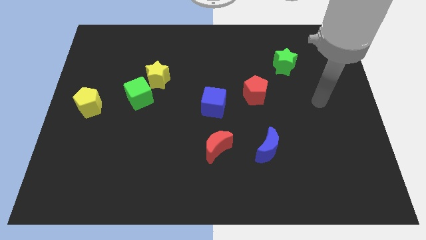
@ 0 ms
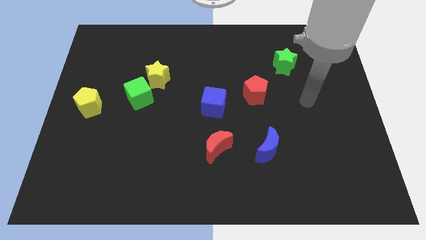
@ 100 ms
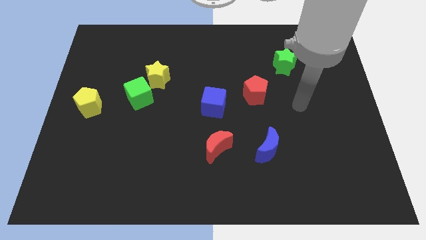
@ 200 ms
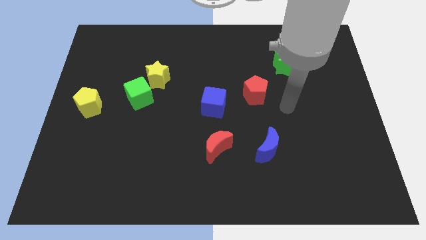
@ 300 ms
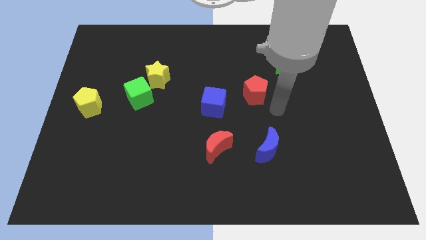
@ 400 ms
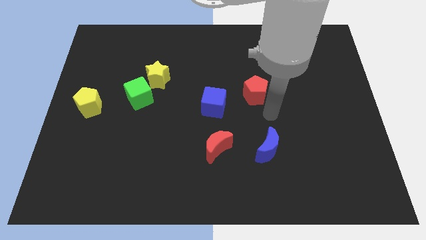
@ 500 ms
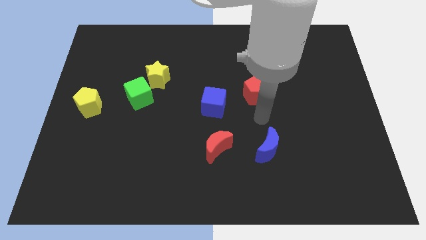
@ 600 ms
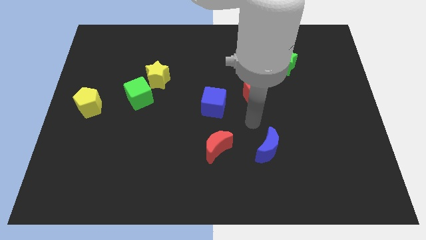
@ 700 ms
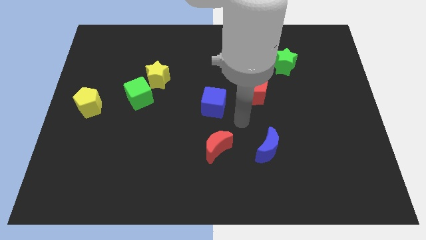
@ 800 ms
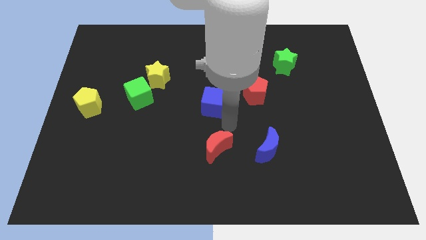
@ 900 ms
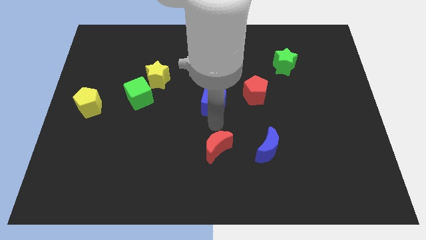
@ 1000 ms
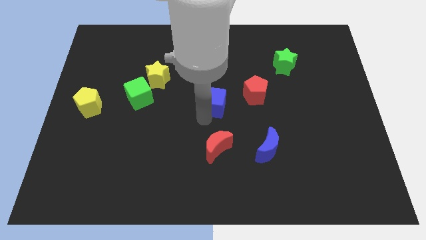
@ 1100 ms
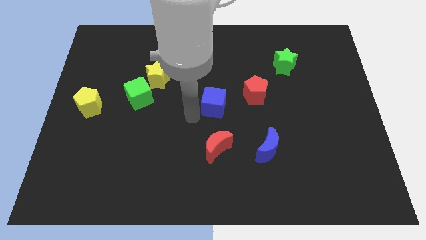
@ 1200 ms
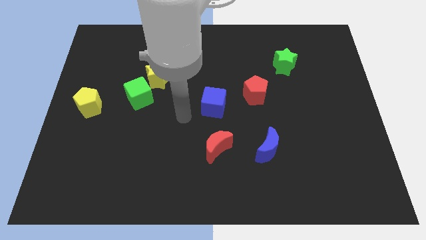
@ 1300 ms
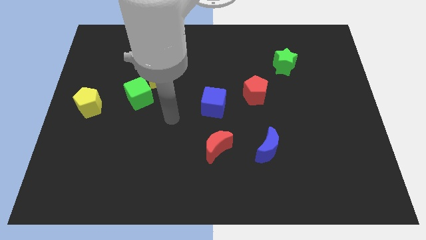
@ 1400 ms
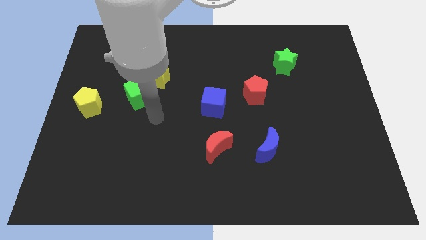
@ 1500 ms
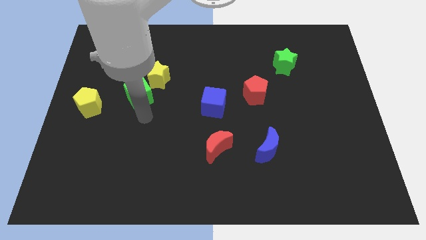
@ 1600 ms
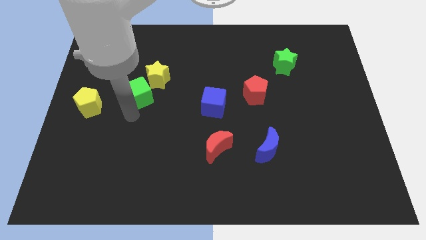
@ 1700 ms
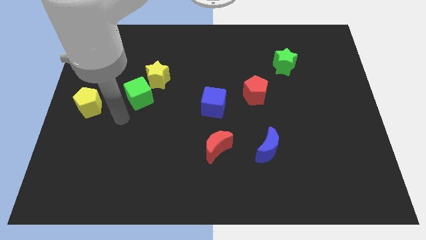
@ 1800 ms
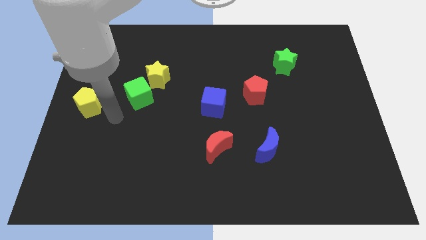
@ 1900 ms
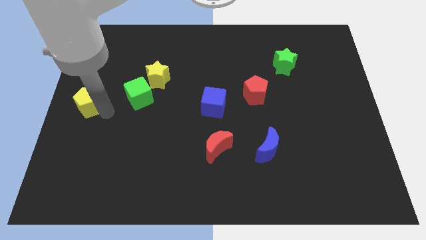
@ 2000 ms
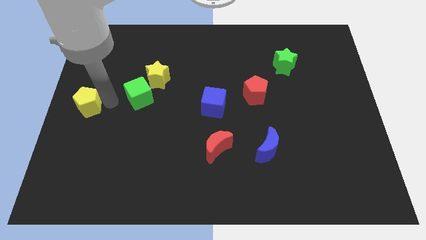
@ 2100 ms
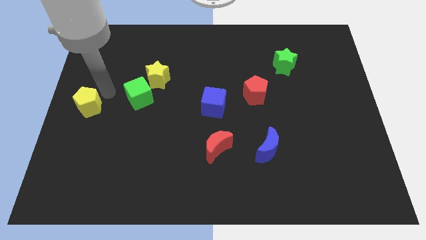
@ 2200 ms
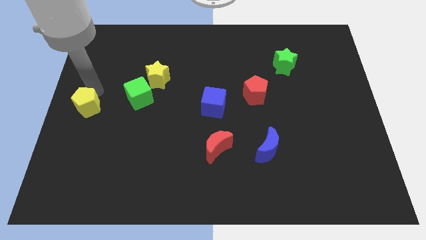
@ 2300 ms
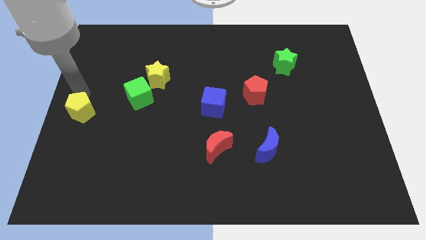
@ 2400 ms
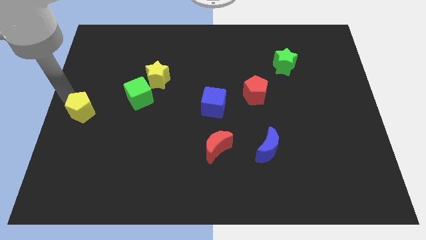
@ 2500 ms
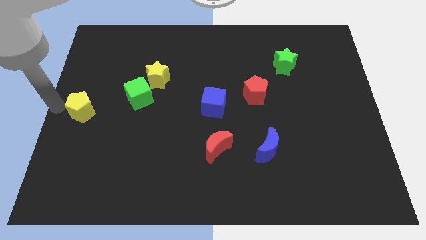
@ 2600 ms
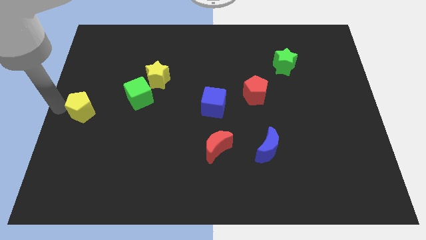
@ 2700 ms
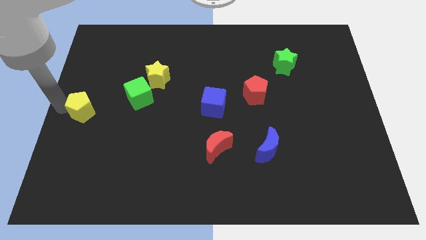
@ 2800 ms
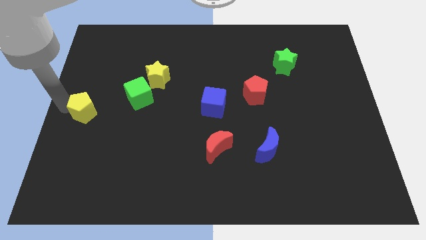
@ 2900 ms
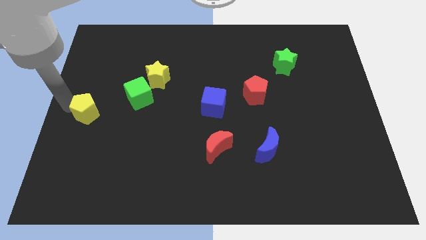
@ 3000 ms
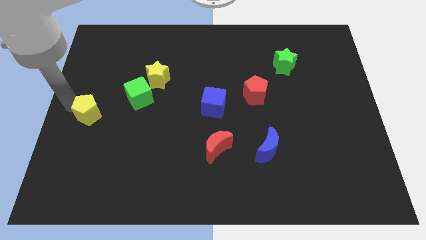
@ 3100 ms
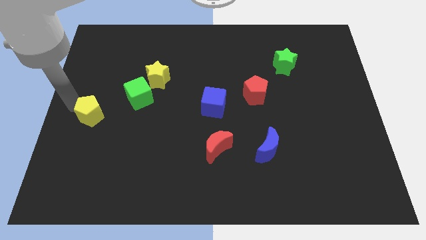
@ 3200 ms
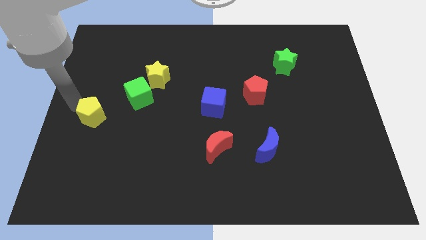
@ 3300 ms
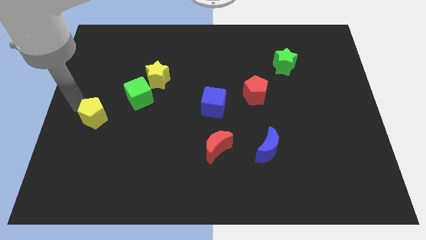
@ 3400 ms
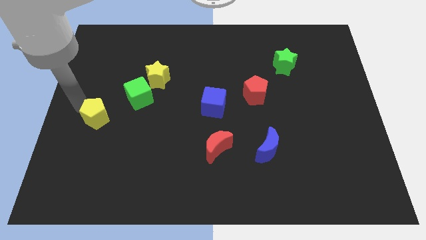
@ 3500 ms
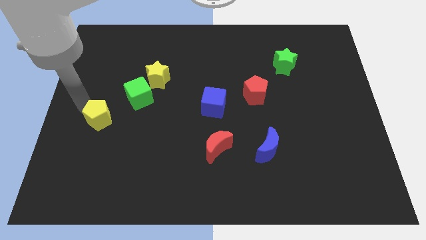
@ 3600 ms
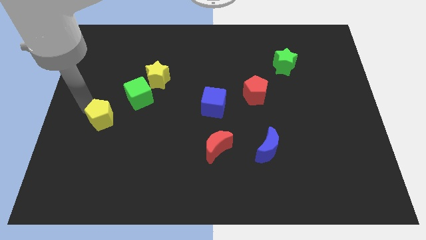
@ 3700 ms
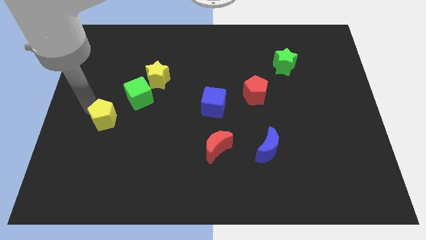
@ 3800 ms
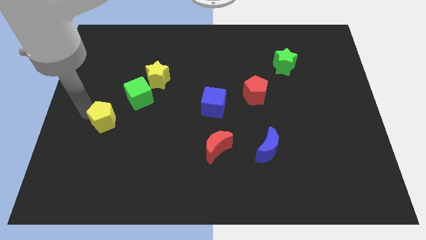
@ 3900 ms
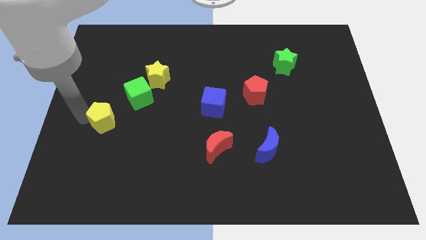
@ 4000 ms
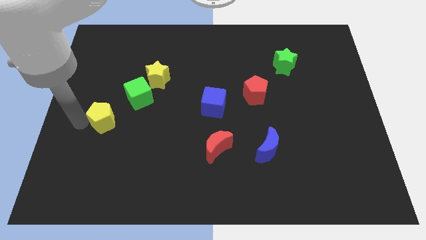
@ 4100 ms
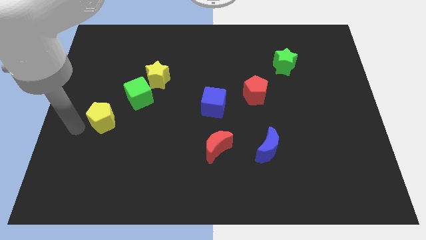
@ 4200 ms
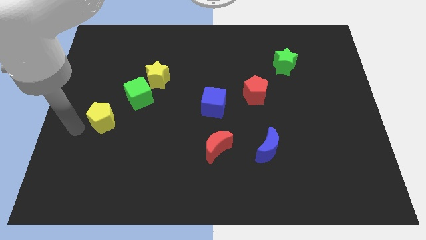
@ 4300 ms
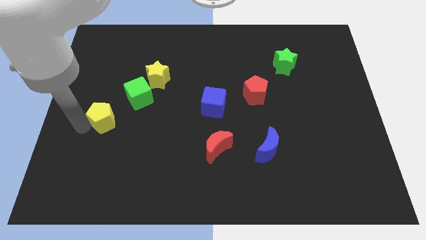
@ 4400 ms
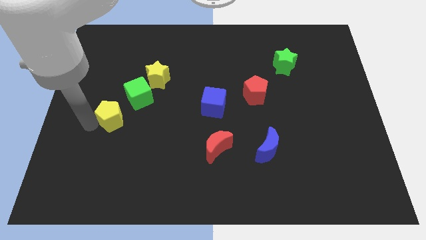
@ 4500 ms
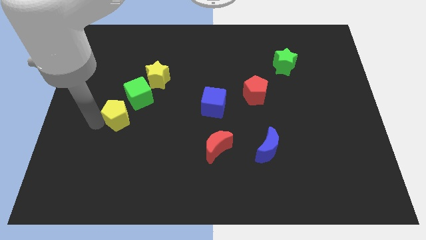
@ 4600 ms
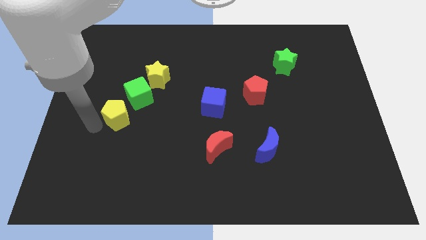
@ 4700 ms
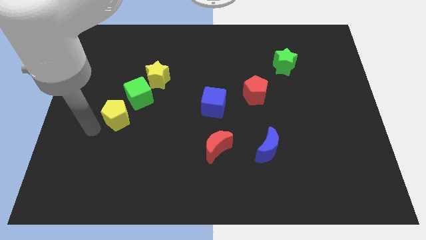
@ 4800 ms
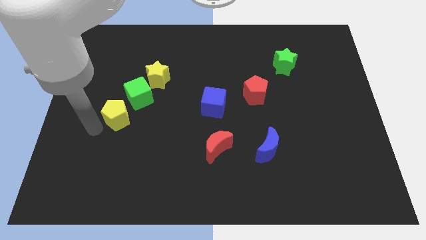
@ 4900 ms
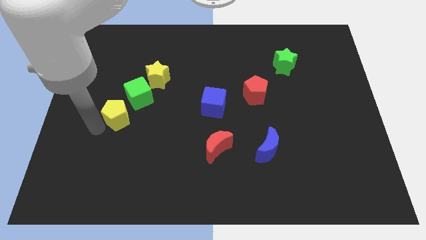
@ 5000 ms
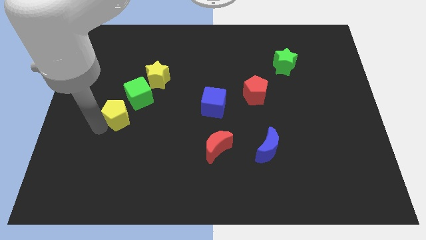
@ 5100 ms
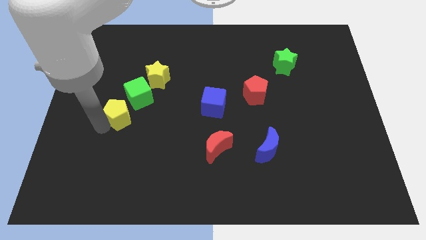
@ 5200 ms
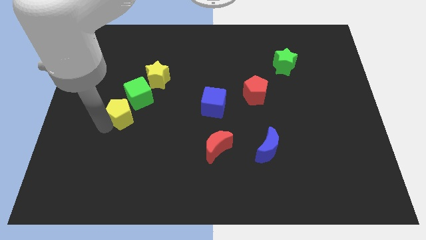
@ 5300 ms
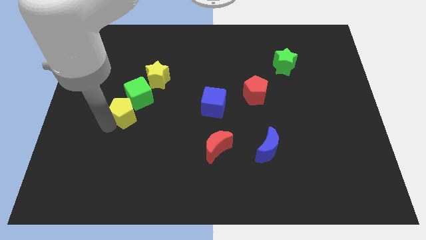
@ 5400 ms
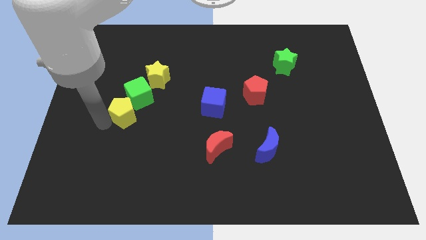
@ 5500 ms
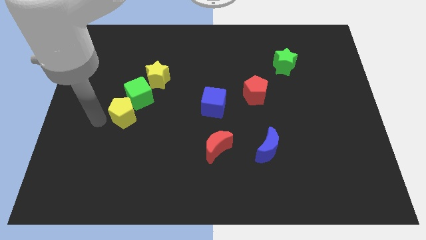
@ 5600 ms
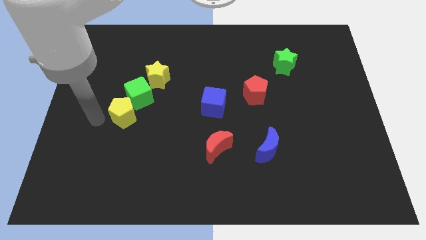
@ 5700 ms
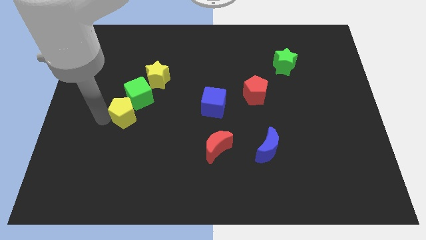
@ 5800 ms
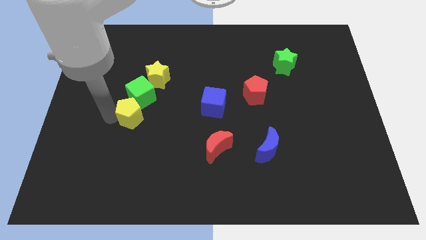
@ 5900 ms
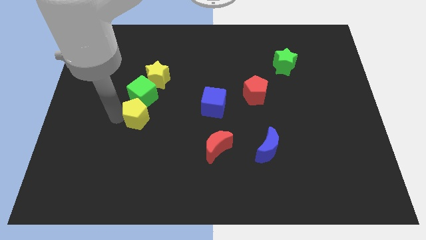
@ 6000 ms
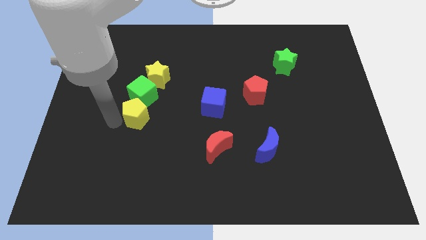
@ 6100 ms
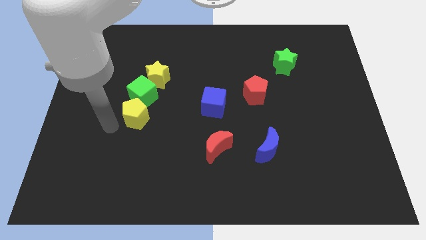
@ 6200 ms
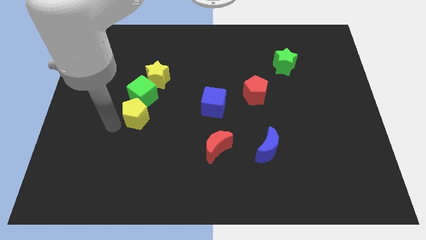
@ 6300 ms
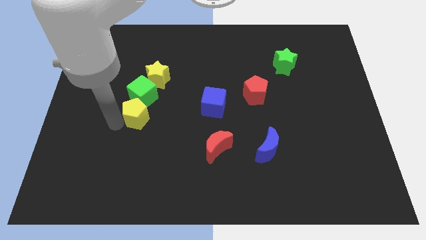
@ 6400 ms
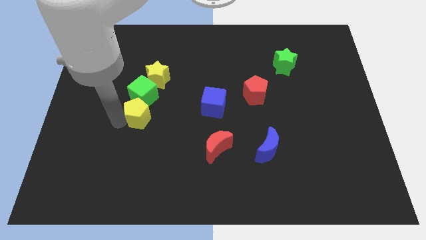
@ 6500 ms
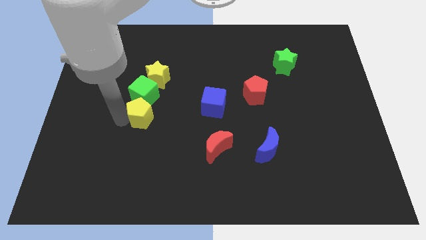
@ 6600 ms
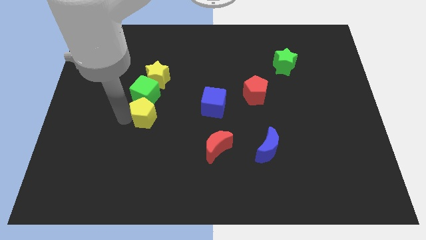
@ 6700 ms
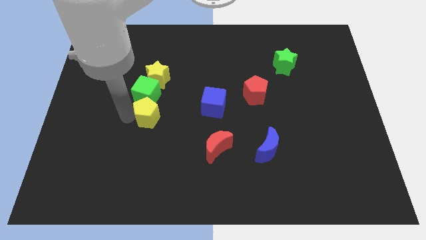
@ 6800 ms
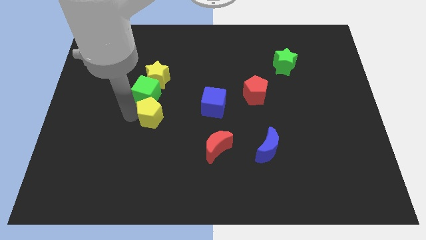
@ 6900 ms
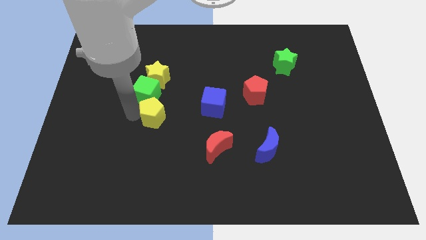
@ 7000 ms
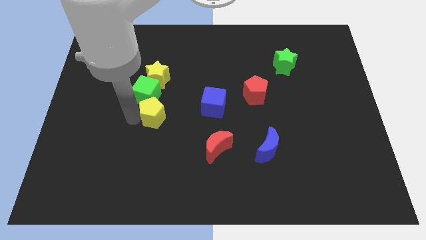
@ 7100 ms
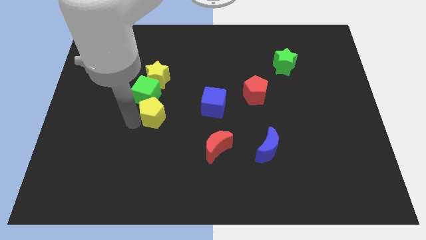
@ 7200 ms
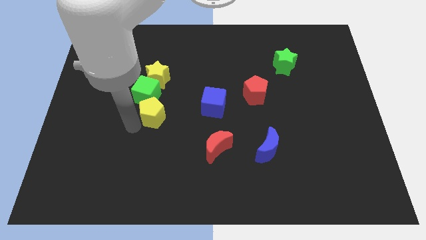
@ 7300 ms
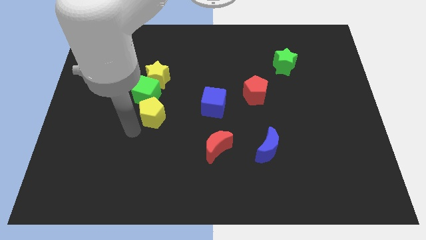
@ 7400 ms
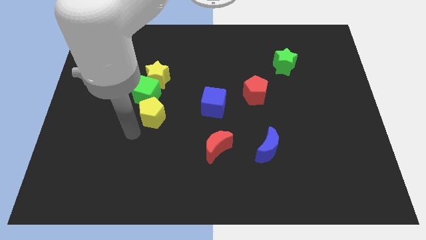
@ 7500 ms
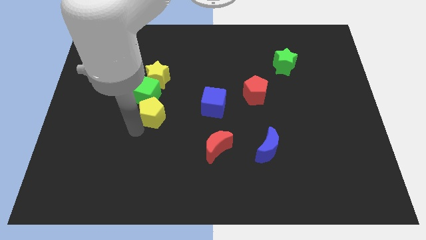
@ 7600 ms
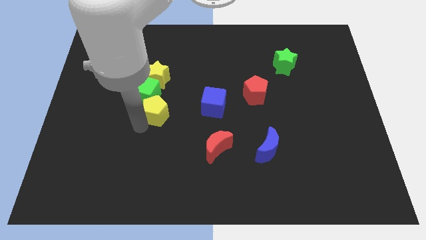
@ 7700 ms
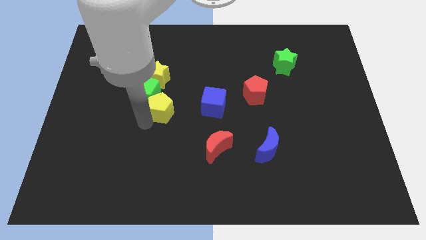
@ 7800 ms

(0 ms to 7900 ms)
move the yellow pentagon right of the green cube
